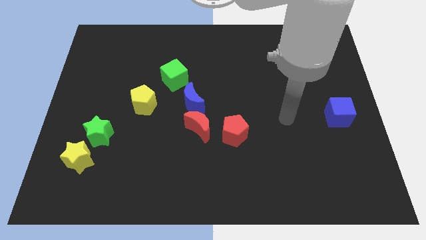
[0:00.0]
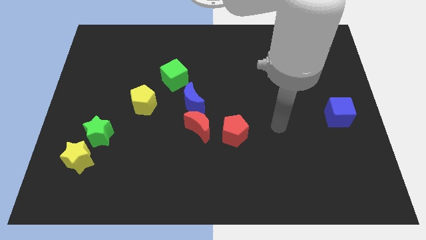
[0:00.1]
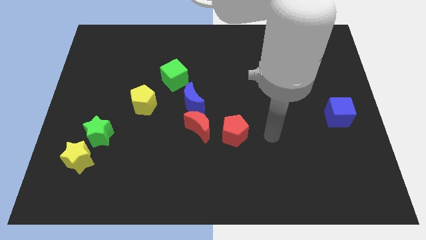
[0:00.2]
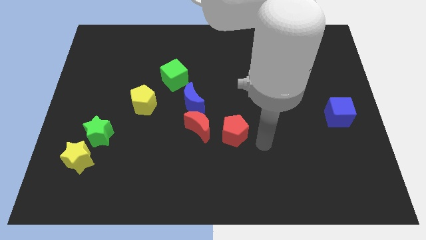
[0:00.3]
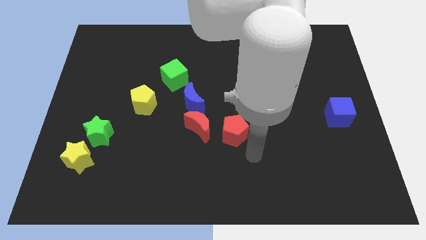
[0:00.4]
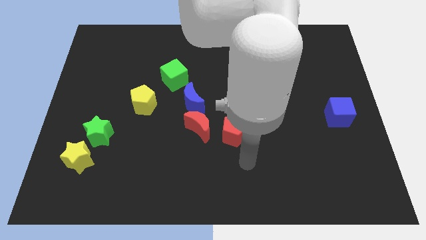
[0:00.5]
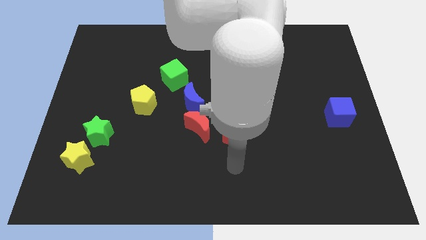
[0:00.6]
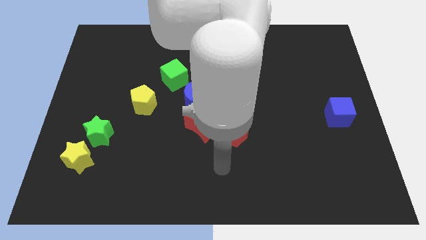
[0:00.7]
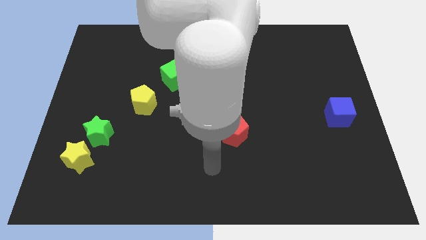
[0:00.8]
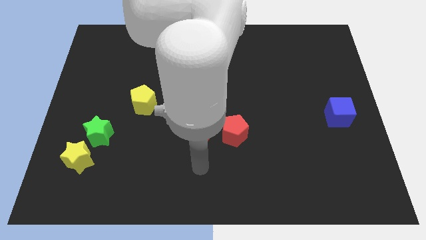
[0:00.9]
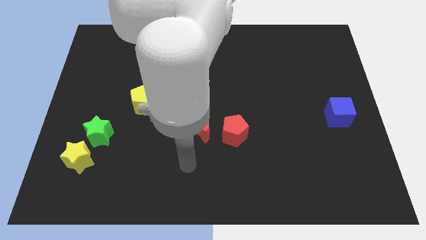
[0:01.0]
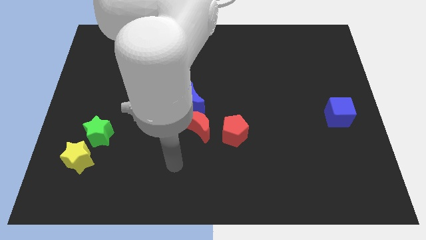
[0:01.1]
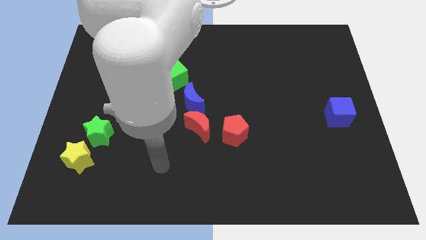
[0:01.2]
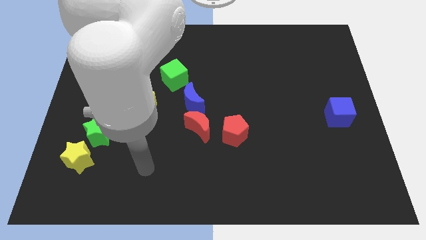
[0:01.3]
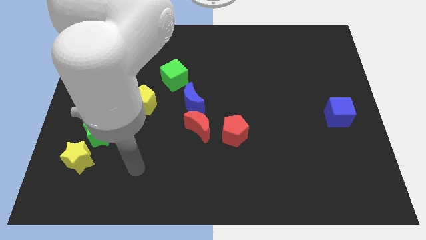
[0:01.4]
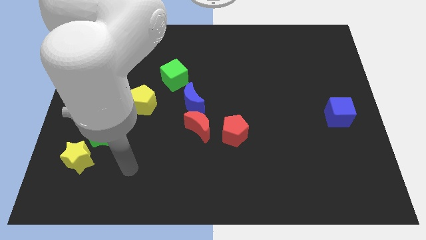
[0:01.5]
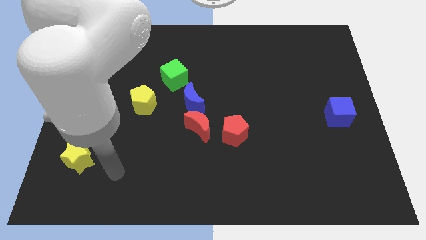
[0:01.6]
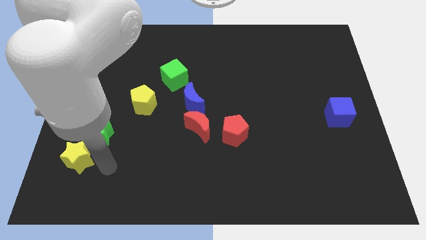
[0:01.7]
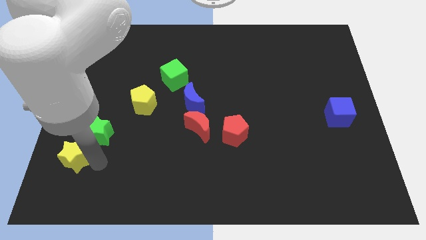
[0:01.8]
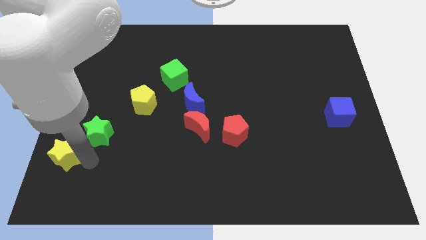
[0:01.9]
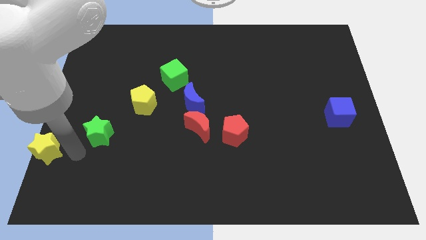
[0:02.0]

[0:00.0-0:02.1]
separate the green star from the yellow star

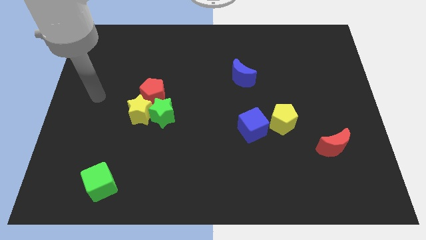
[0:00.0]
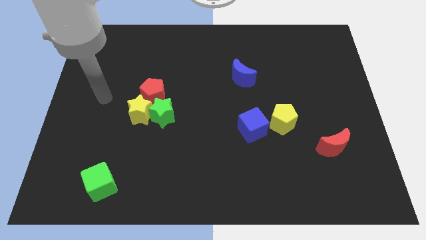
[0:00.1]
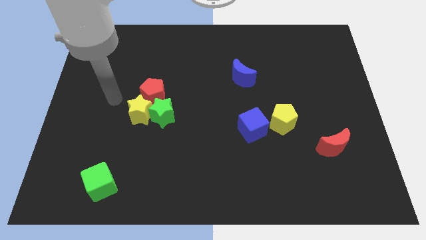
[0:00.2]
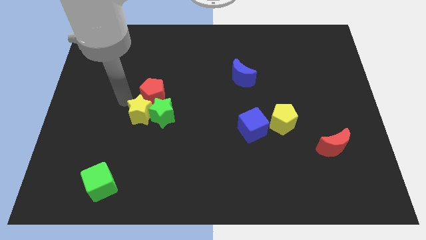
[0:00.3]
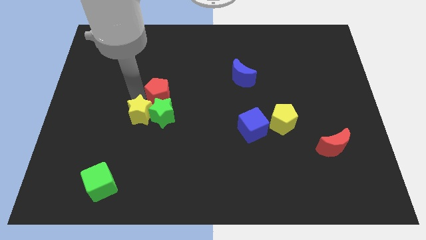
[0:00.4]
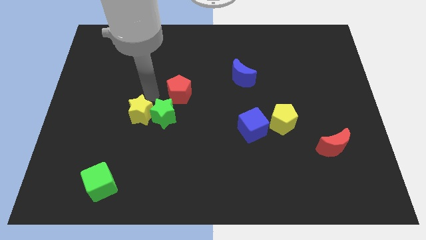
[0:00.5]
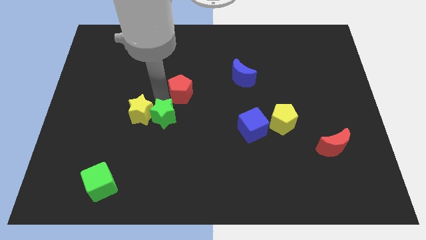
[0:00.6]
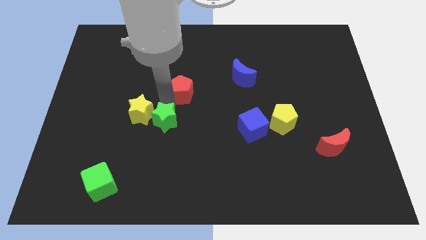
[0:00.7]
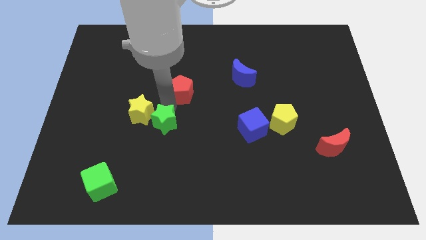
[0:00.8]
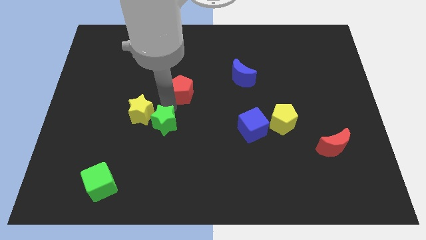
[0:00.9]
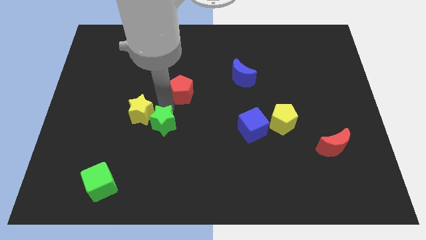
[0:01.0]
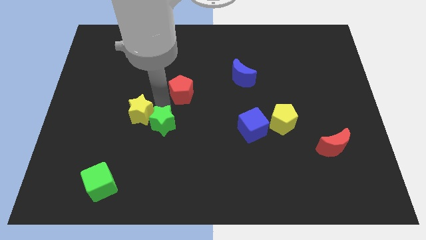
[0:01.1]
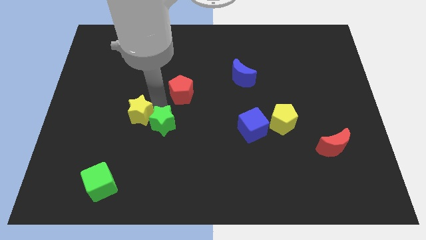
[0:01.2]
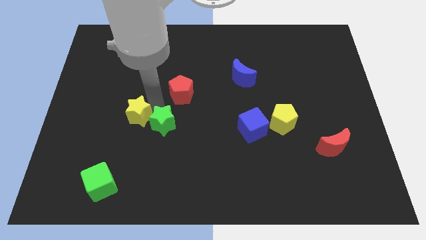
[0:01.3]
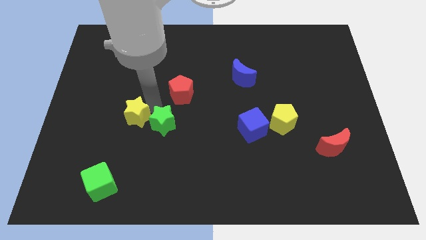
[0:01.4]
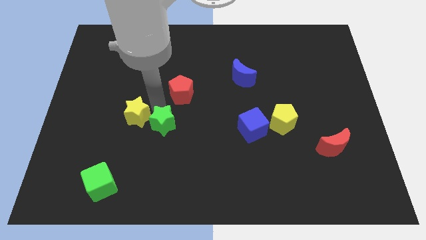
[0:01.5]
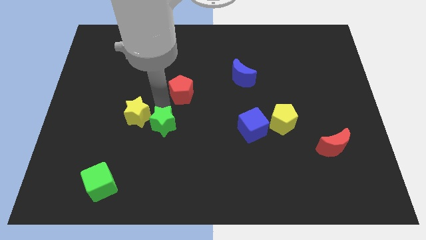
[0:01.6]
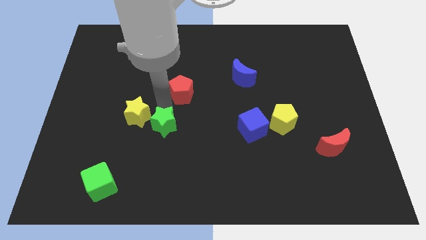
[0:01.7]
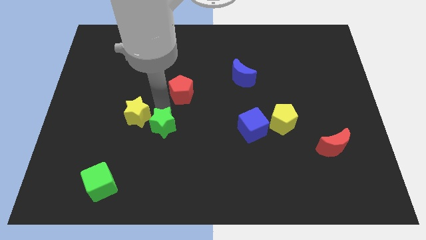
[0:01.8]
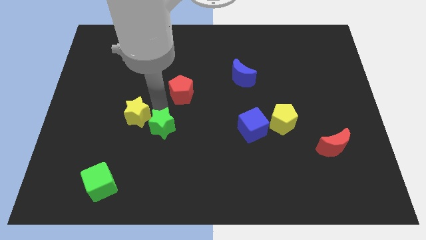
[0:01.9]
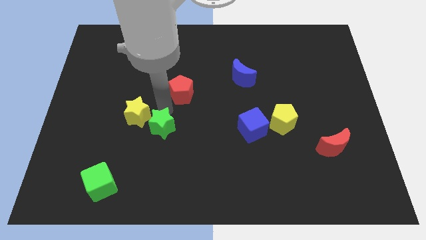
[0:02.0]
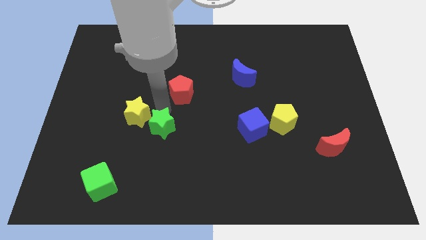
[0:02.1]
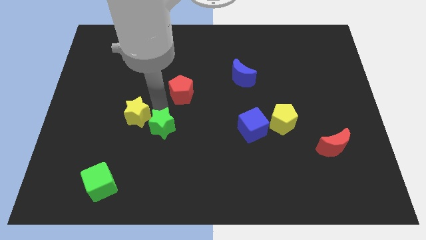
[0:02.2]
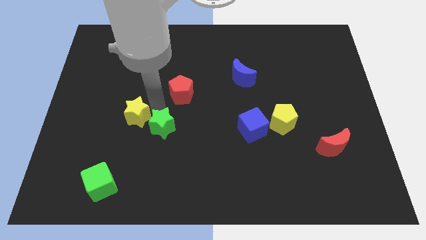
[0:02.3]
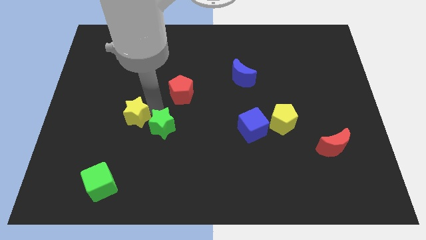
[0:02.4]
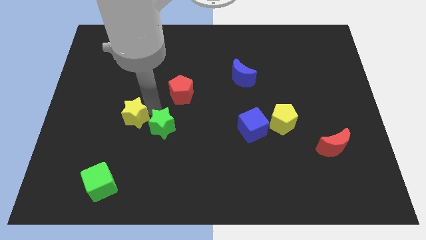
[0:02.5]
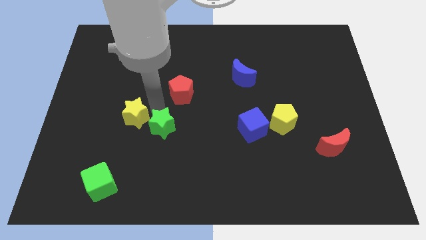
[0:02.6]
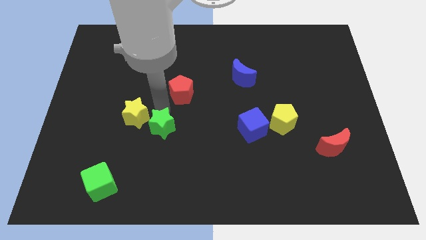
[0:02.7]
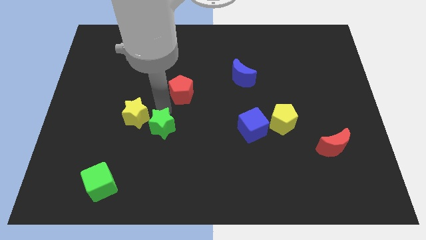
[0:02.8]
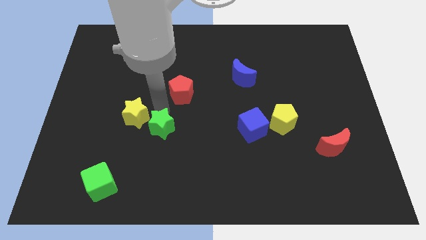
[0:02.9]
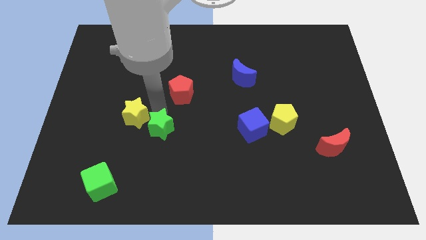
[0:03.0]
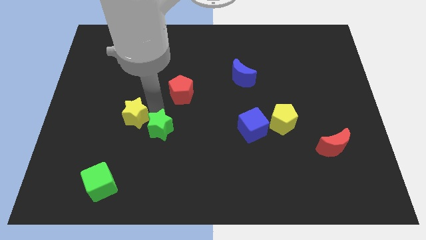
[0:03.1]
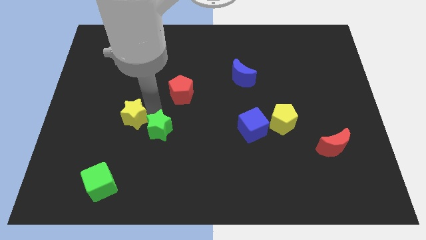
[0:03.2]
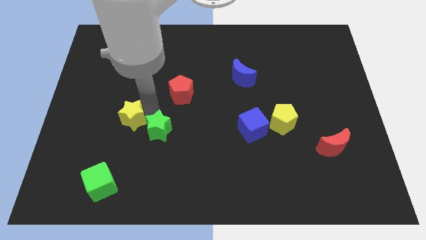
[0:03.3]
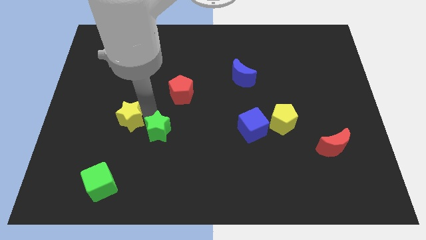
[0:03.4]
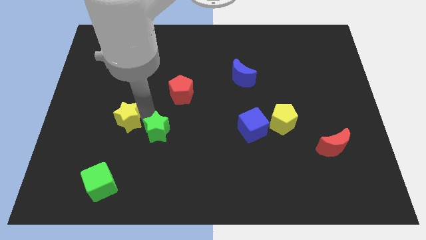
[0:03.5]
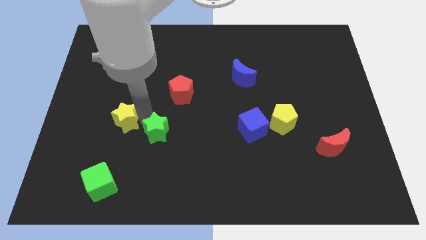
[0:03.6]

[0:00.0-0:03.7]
separate the yellow star from the green star and red pentagon

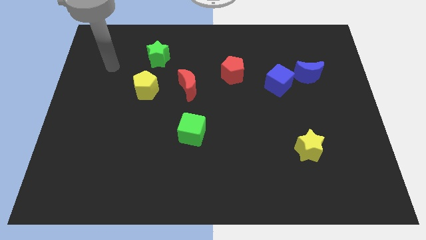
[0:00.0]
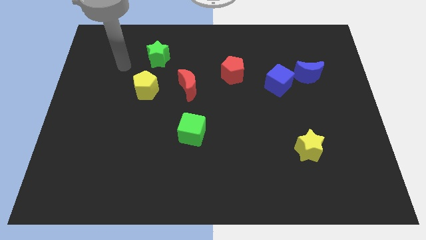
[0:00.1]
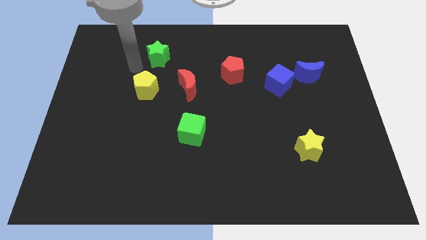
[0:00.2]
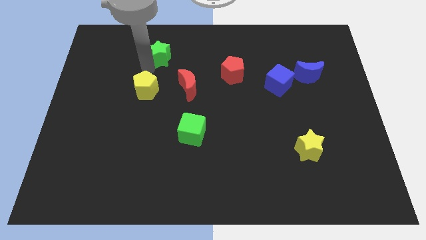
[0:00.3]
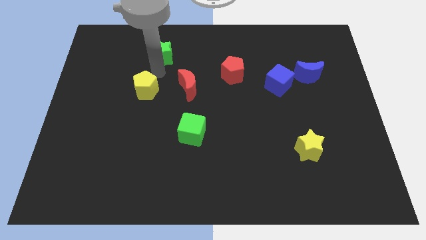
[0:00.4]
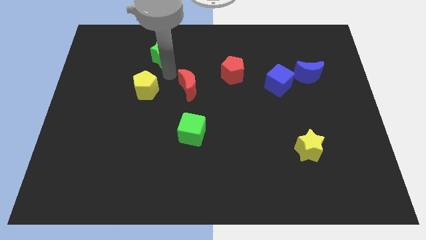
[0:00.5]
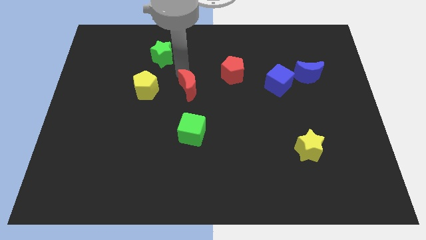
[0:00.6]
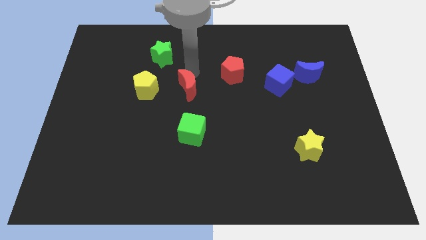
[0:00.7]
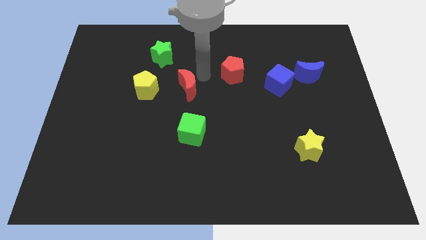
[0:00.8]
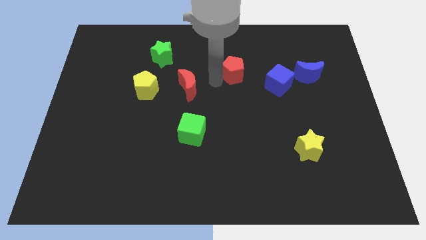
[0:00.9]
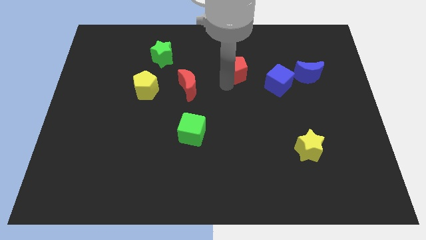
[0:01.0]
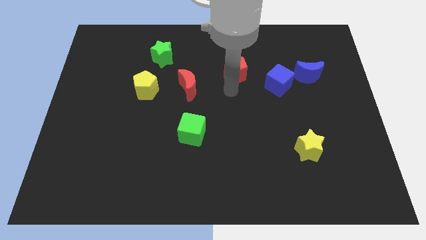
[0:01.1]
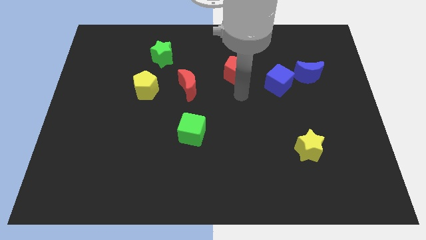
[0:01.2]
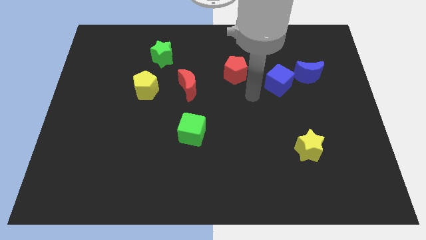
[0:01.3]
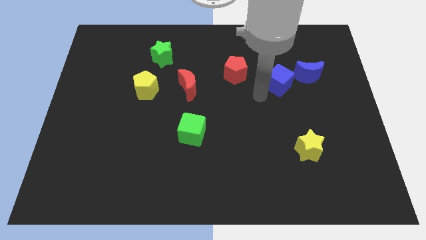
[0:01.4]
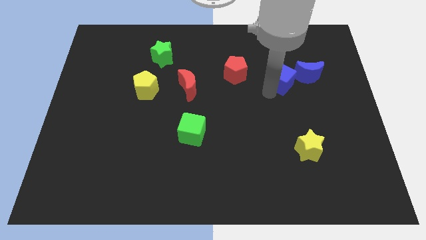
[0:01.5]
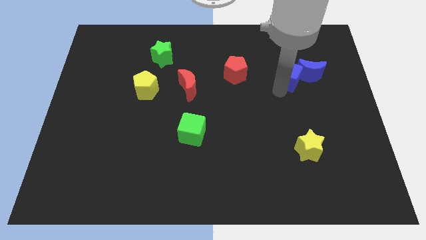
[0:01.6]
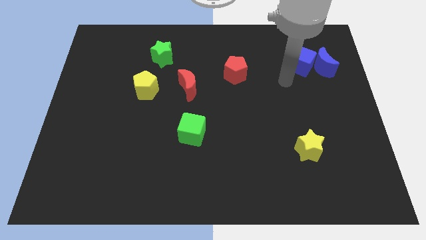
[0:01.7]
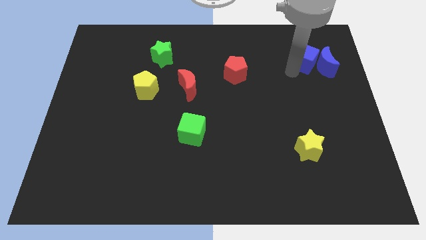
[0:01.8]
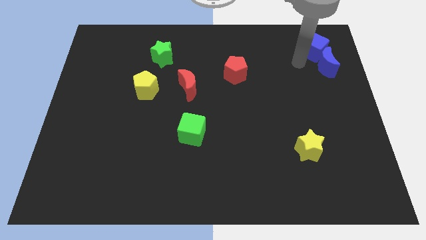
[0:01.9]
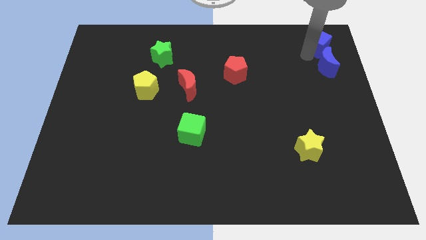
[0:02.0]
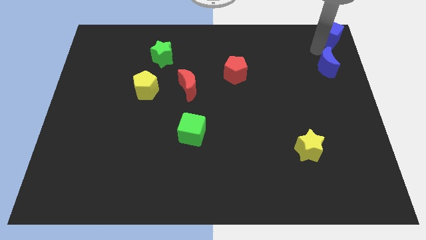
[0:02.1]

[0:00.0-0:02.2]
separate the blue moon from the blue cube

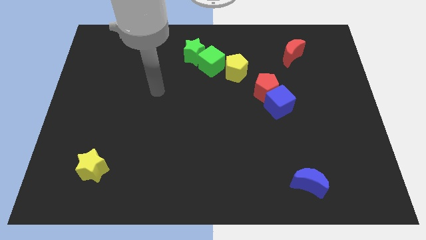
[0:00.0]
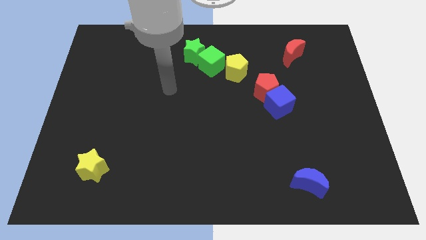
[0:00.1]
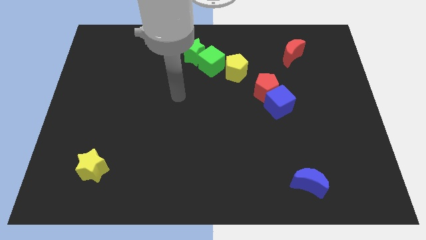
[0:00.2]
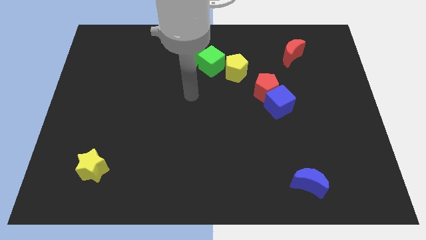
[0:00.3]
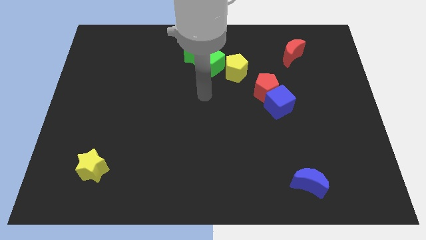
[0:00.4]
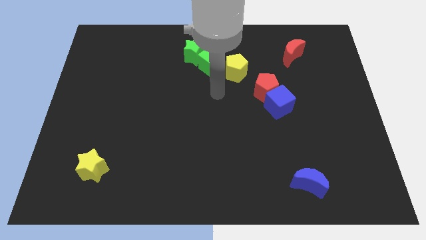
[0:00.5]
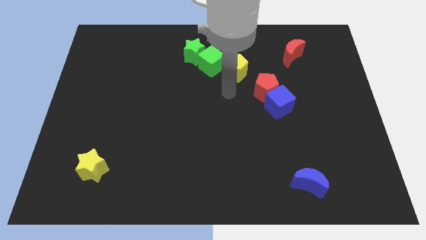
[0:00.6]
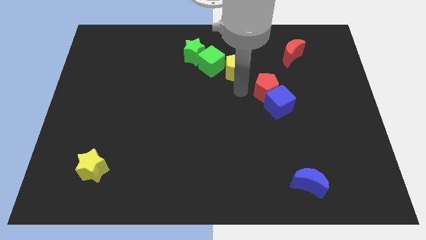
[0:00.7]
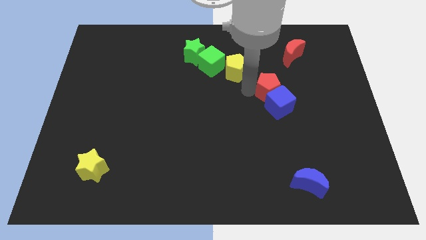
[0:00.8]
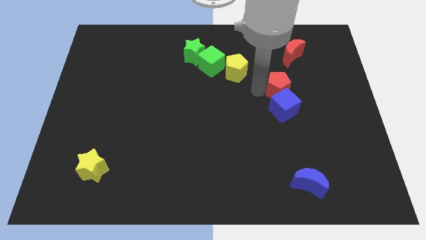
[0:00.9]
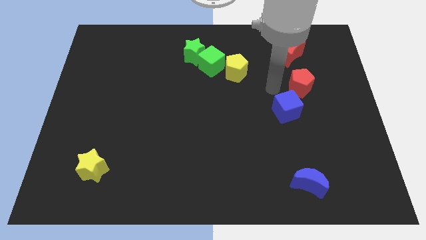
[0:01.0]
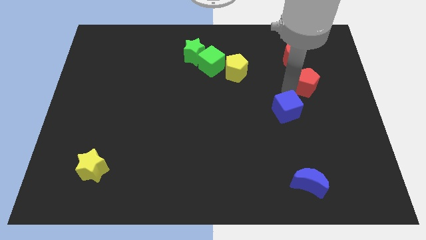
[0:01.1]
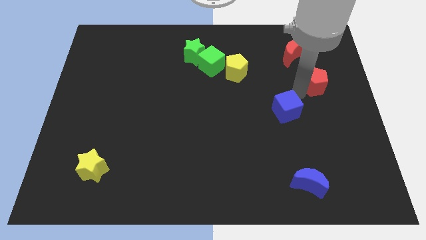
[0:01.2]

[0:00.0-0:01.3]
move the blue cube away from the red pentagon

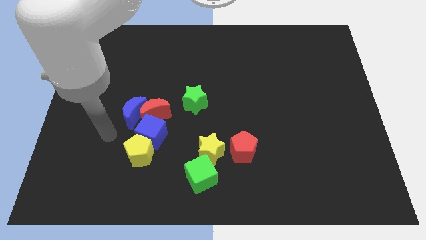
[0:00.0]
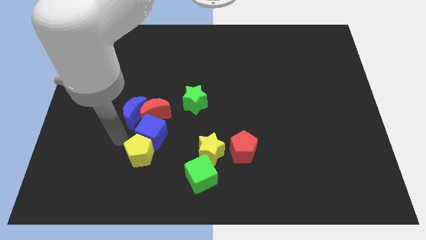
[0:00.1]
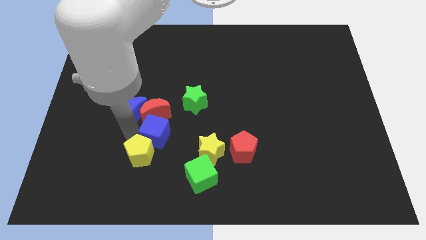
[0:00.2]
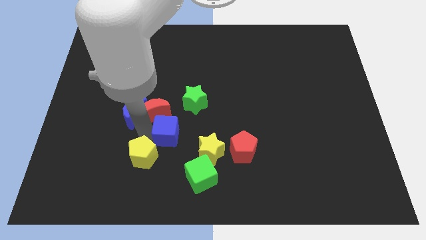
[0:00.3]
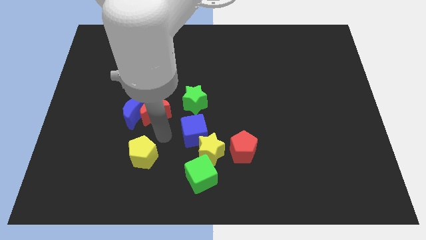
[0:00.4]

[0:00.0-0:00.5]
separate the yellow pentagon from the blue cube
